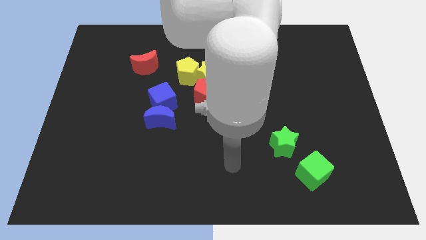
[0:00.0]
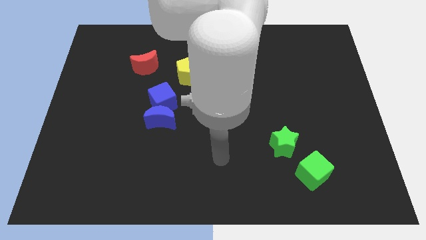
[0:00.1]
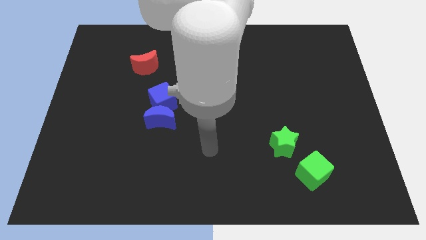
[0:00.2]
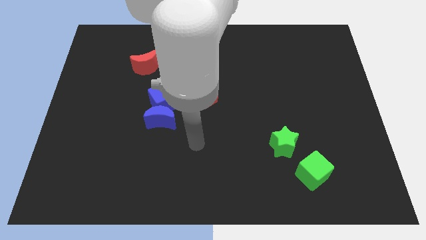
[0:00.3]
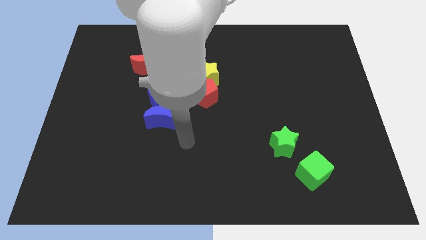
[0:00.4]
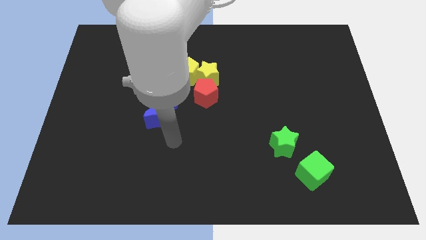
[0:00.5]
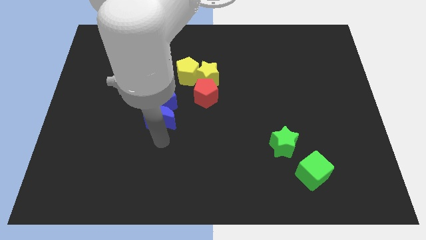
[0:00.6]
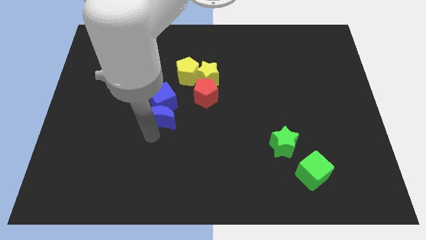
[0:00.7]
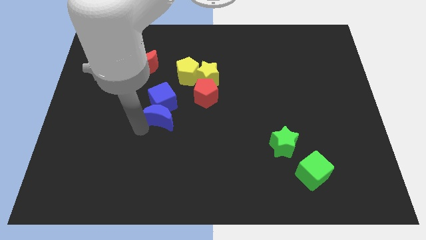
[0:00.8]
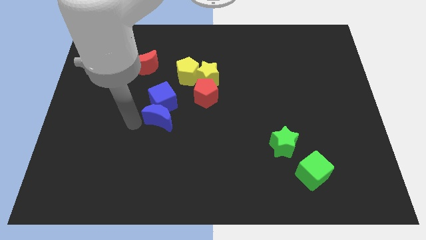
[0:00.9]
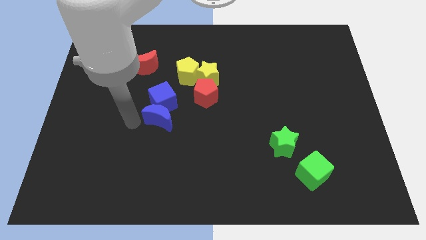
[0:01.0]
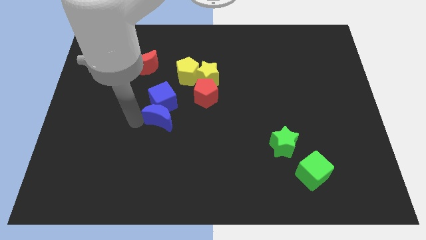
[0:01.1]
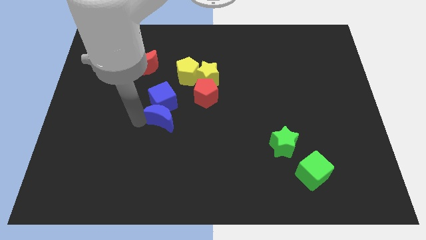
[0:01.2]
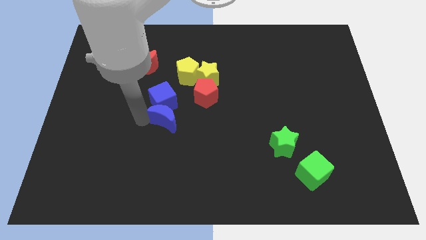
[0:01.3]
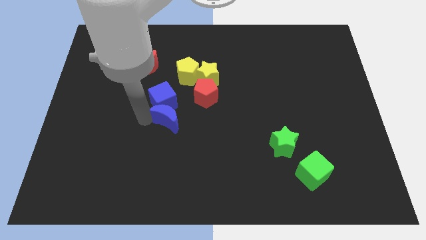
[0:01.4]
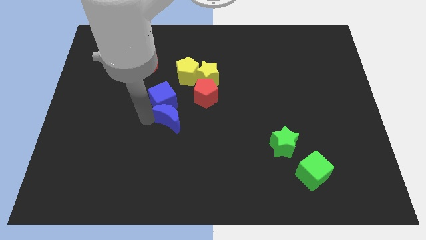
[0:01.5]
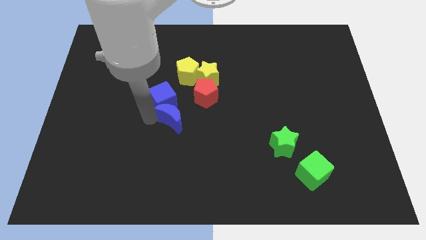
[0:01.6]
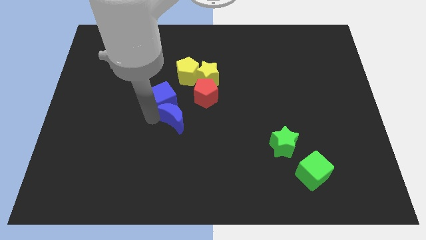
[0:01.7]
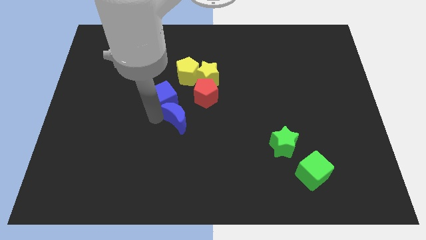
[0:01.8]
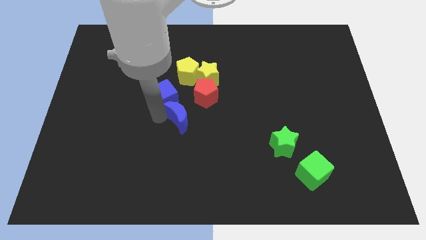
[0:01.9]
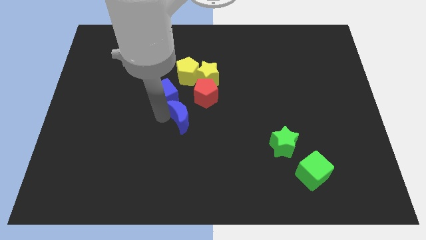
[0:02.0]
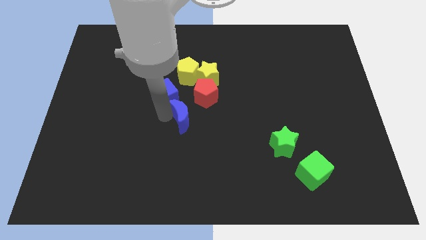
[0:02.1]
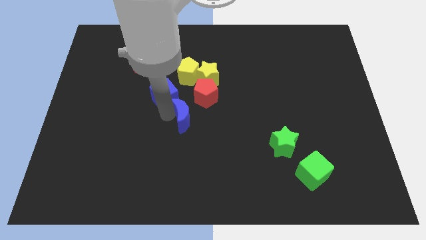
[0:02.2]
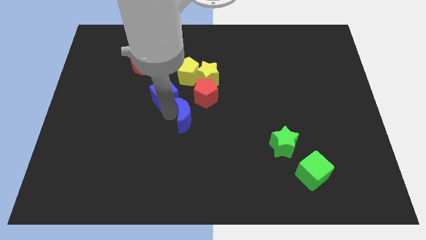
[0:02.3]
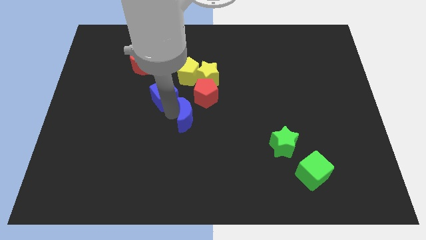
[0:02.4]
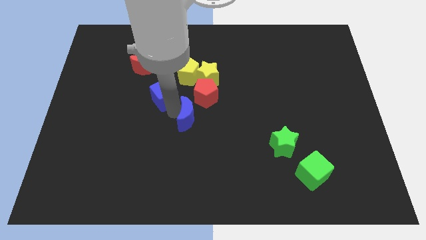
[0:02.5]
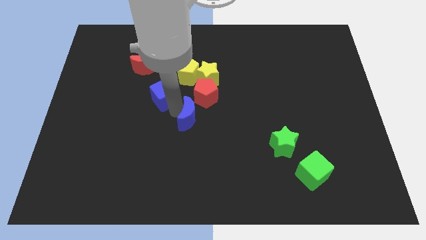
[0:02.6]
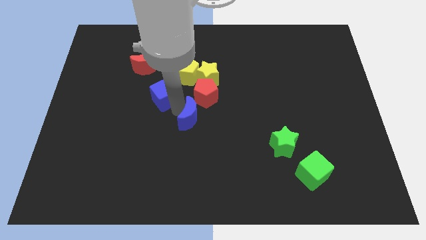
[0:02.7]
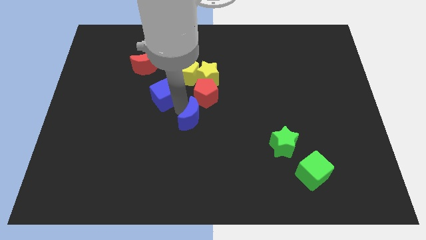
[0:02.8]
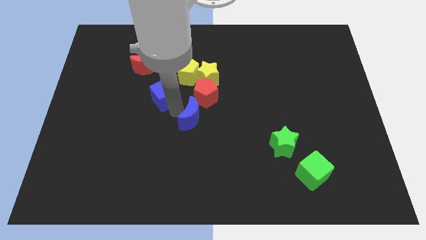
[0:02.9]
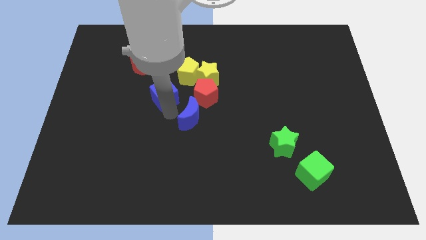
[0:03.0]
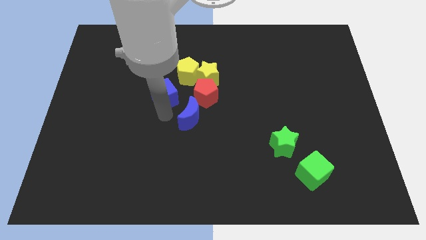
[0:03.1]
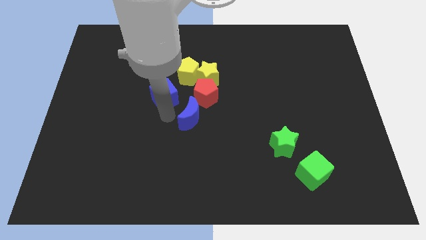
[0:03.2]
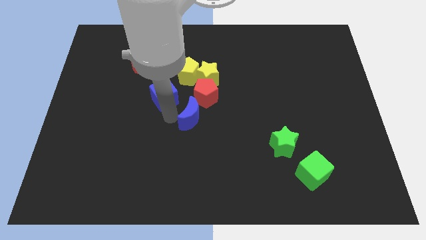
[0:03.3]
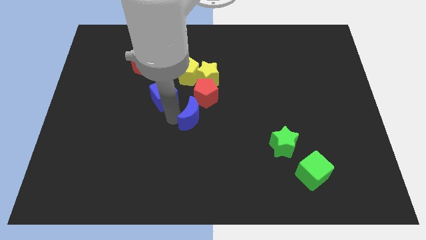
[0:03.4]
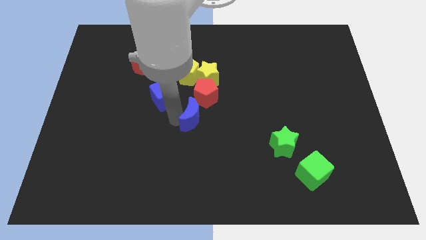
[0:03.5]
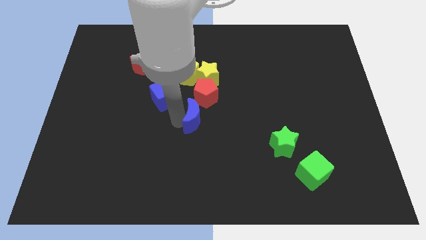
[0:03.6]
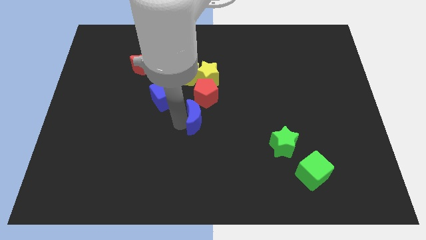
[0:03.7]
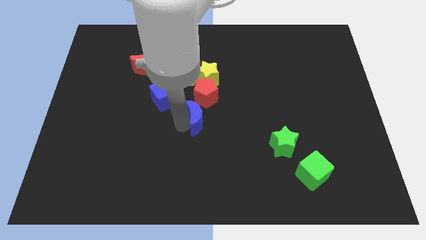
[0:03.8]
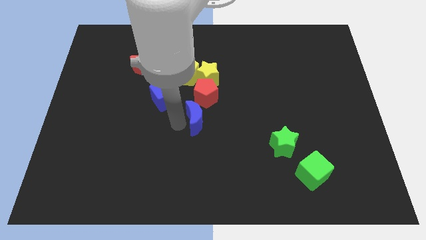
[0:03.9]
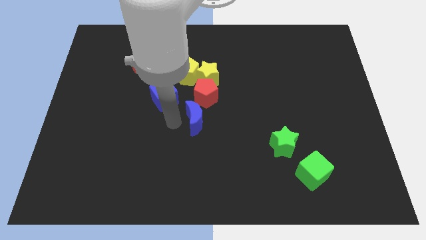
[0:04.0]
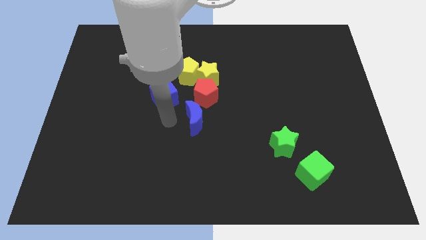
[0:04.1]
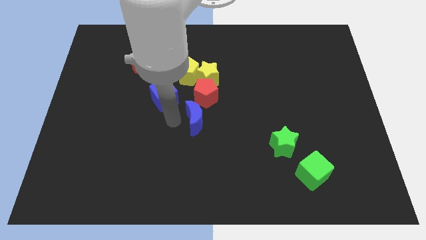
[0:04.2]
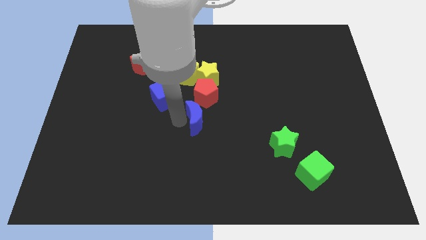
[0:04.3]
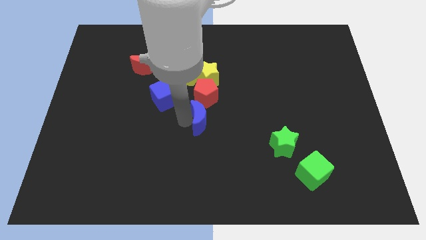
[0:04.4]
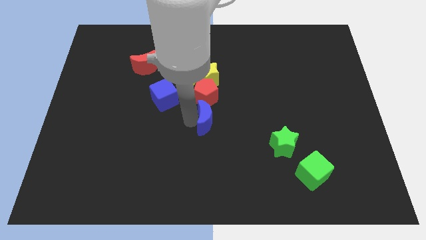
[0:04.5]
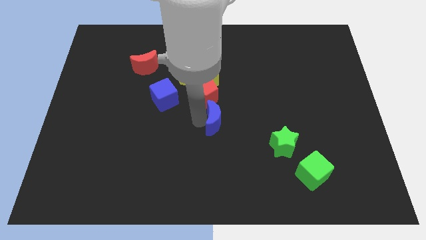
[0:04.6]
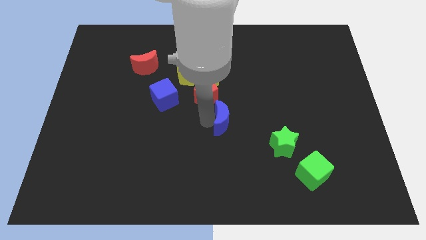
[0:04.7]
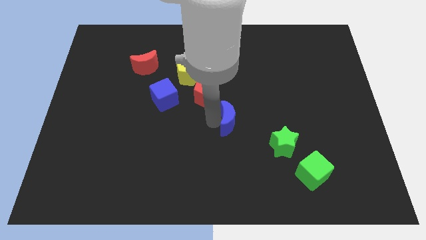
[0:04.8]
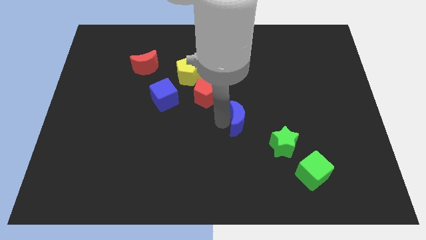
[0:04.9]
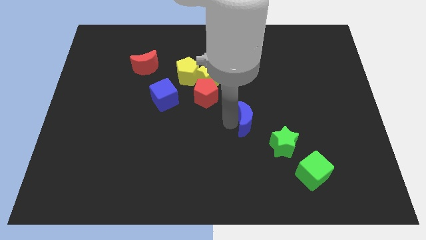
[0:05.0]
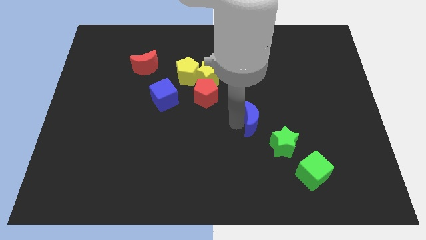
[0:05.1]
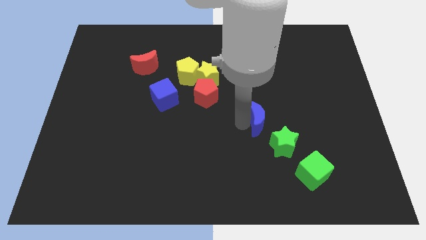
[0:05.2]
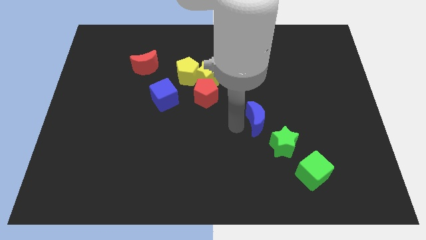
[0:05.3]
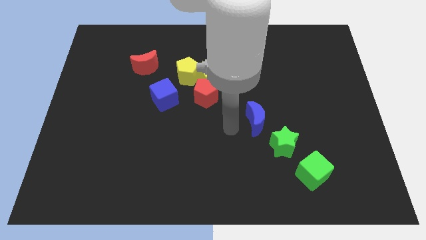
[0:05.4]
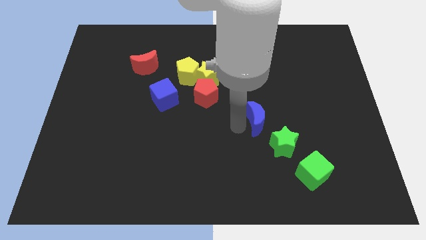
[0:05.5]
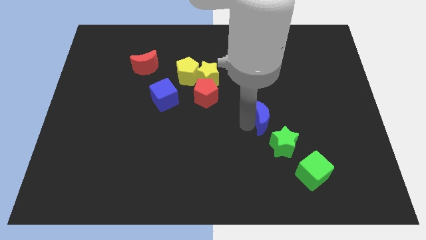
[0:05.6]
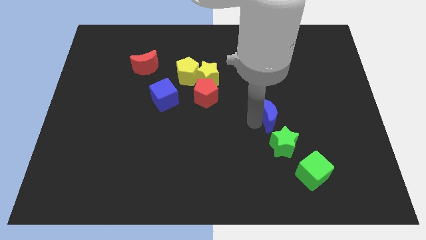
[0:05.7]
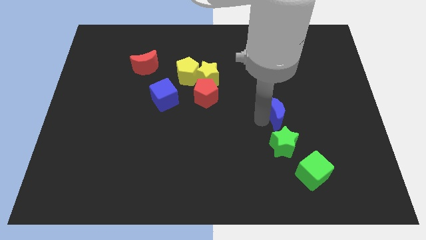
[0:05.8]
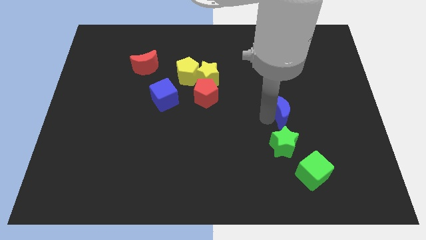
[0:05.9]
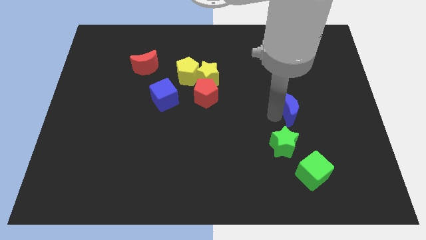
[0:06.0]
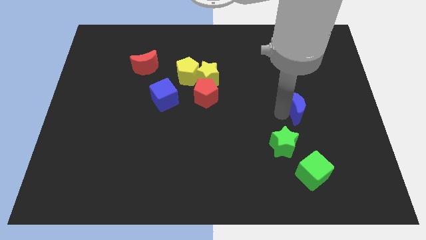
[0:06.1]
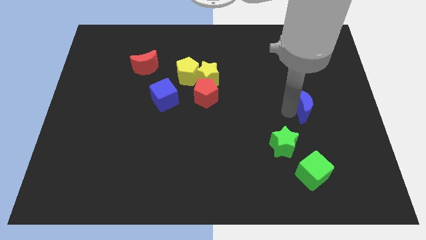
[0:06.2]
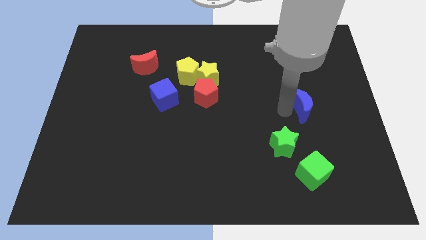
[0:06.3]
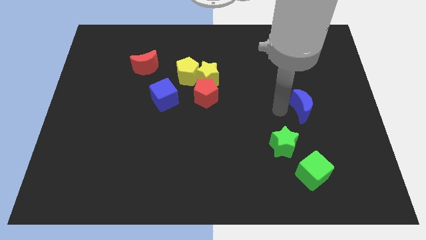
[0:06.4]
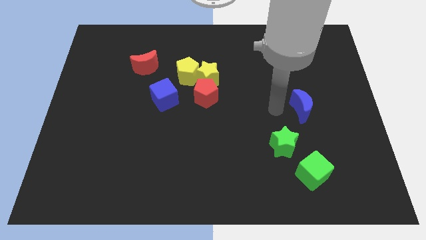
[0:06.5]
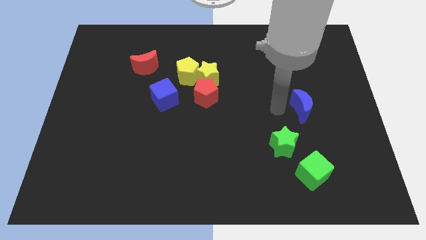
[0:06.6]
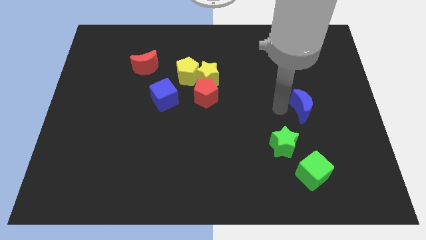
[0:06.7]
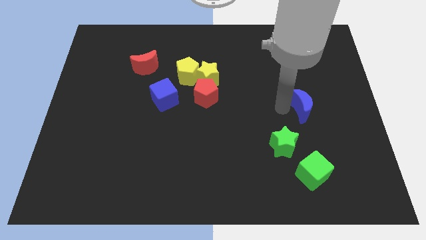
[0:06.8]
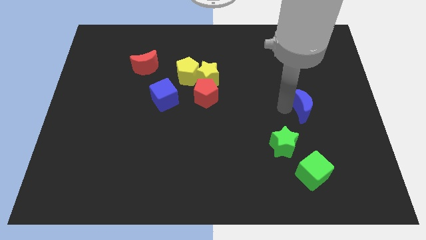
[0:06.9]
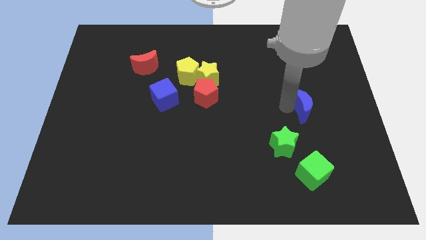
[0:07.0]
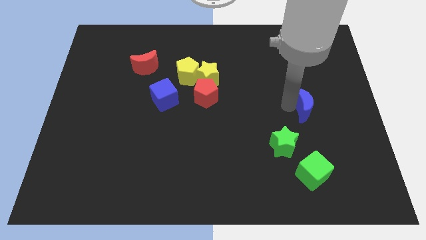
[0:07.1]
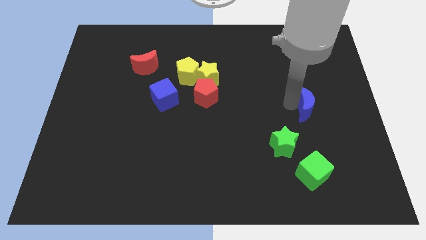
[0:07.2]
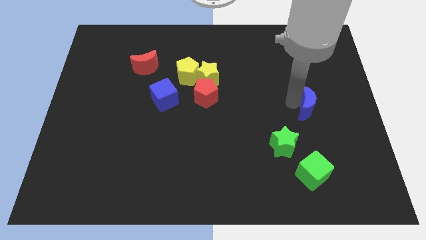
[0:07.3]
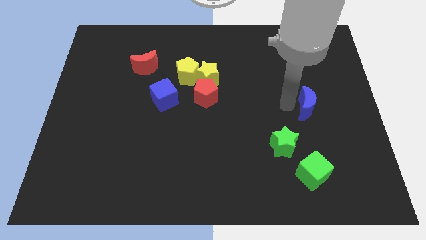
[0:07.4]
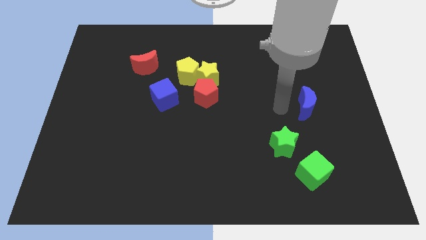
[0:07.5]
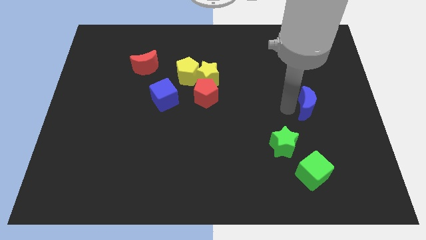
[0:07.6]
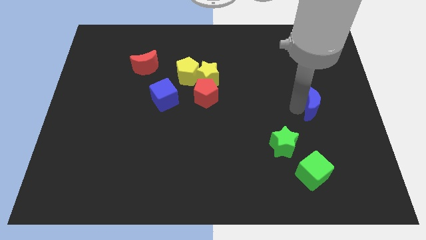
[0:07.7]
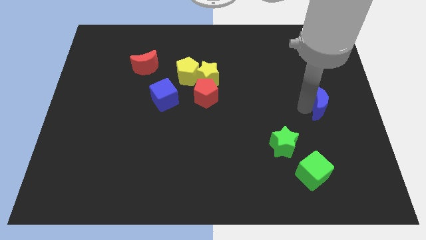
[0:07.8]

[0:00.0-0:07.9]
put the blue moon to the right side
